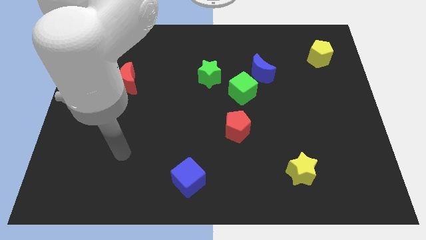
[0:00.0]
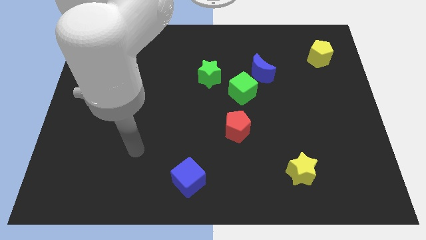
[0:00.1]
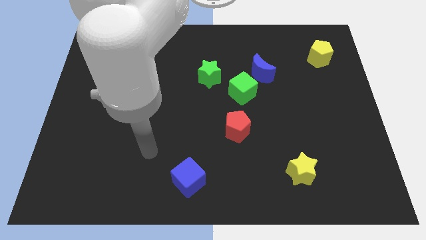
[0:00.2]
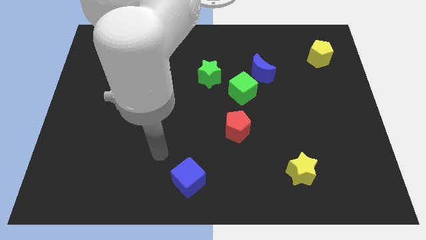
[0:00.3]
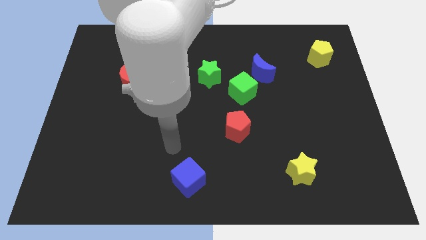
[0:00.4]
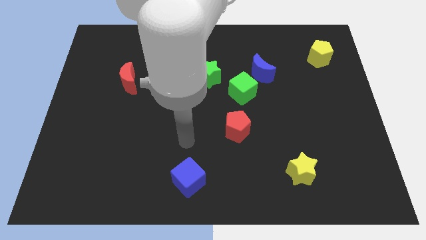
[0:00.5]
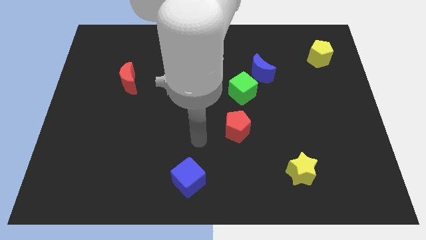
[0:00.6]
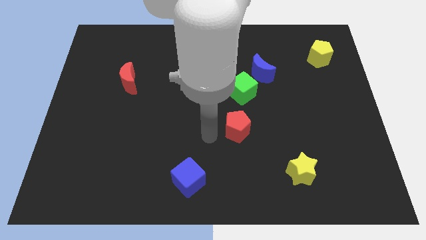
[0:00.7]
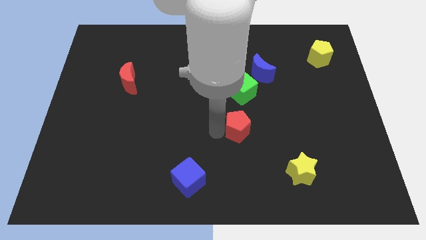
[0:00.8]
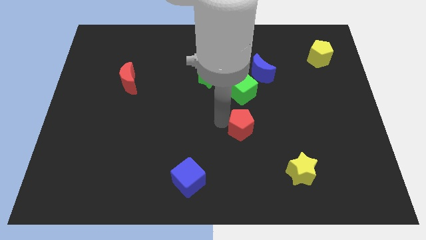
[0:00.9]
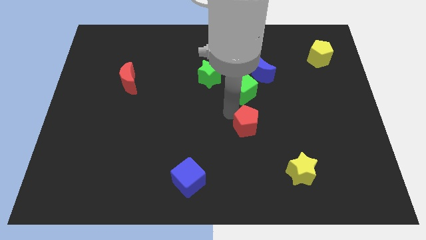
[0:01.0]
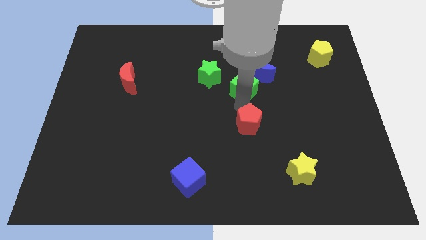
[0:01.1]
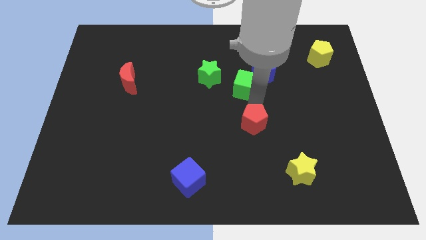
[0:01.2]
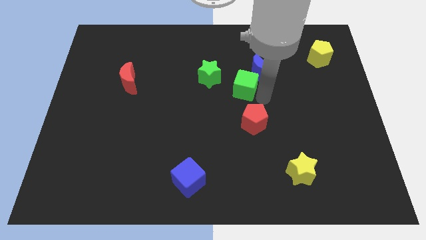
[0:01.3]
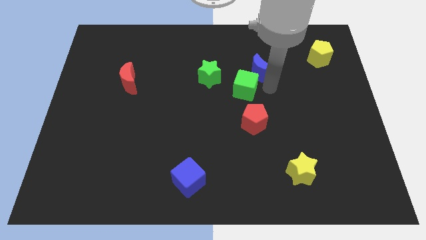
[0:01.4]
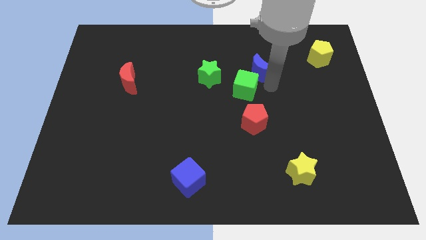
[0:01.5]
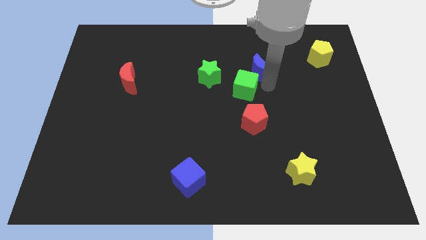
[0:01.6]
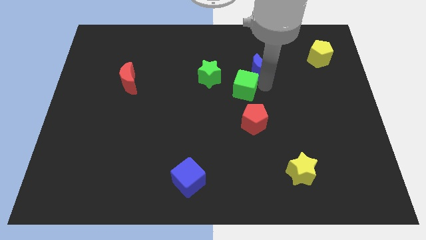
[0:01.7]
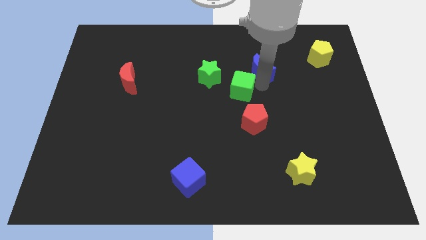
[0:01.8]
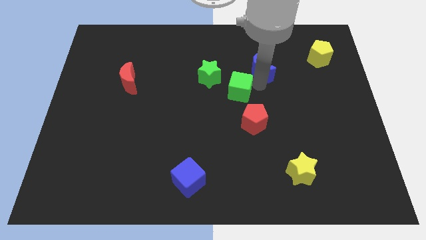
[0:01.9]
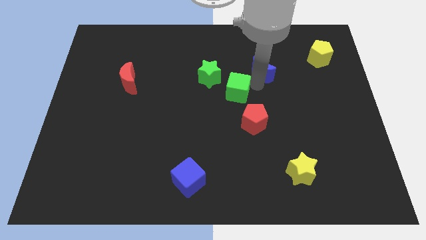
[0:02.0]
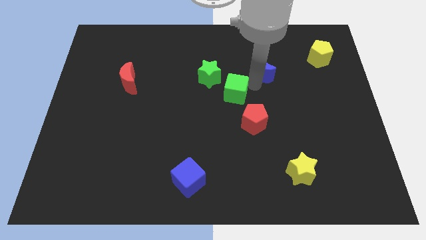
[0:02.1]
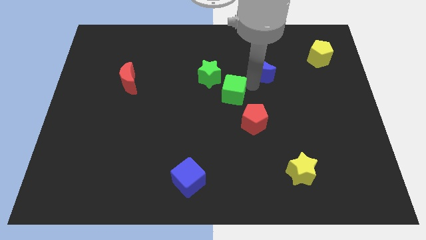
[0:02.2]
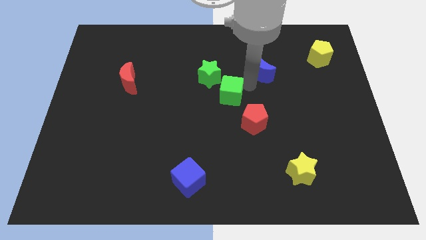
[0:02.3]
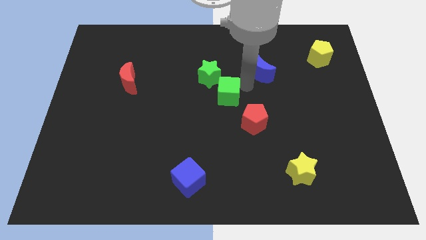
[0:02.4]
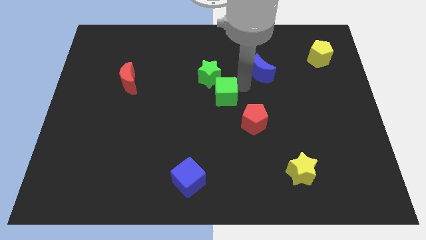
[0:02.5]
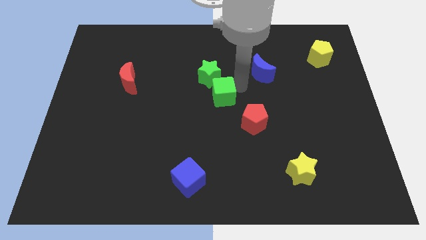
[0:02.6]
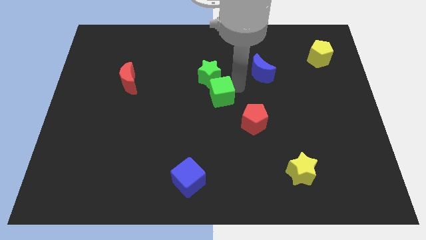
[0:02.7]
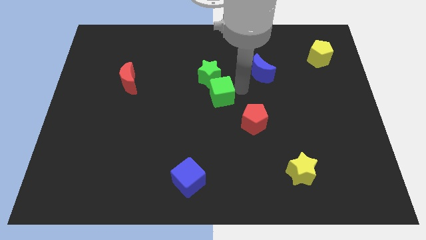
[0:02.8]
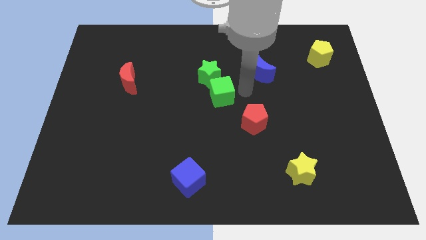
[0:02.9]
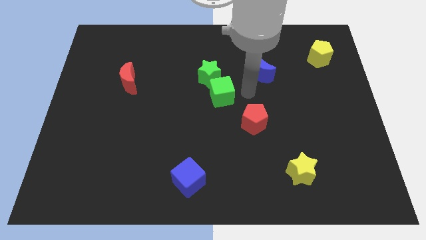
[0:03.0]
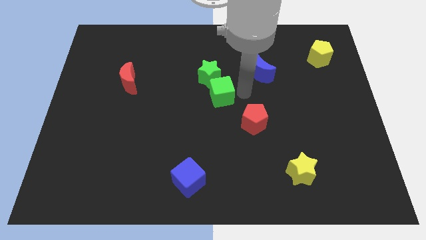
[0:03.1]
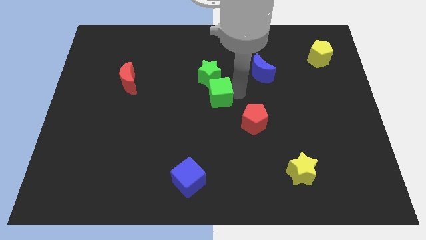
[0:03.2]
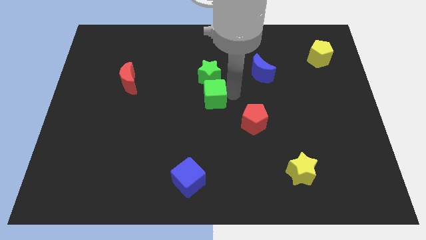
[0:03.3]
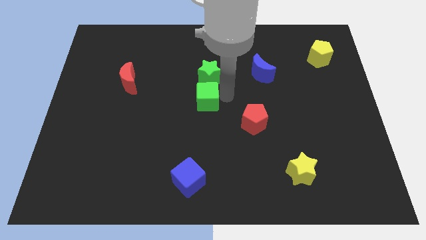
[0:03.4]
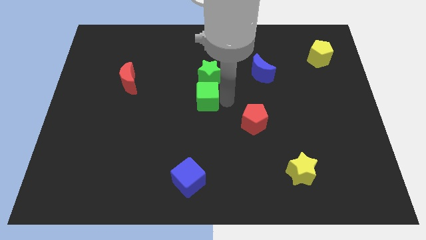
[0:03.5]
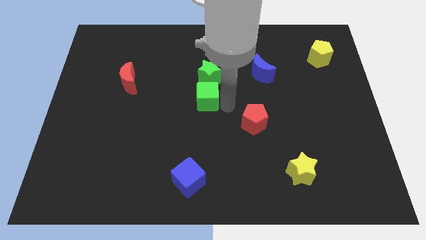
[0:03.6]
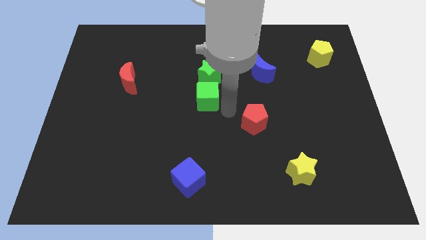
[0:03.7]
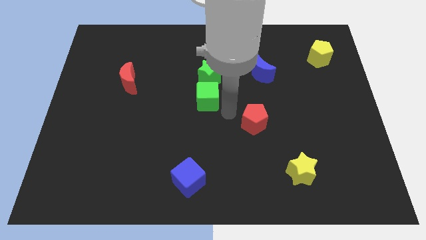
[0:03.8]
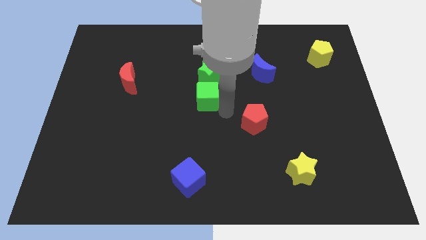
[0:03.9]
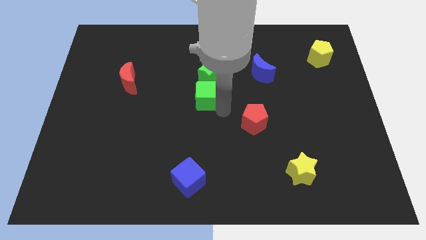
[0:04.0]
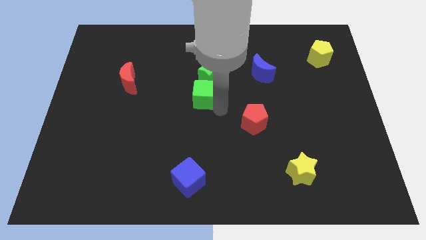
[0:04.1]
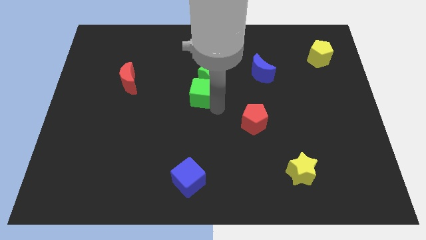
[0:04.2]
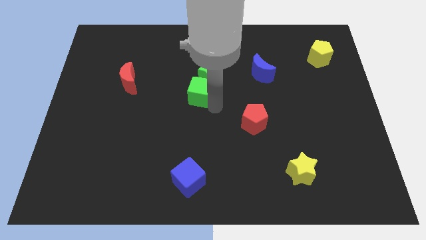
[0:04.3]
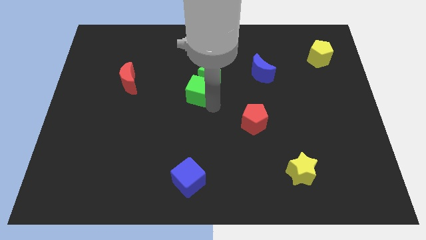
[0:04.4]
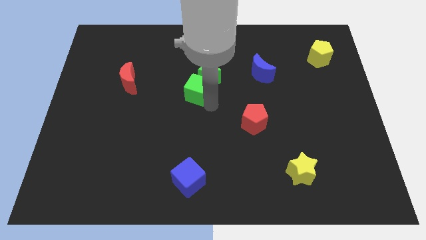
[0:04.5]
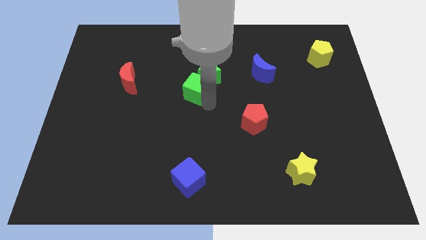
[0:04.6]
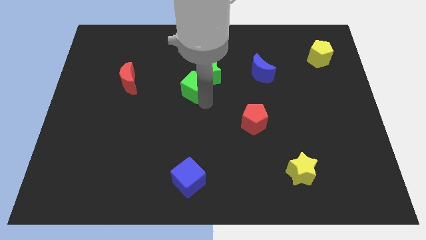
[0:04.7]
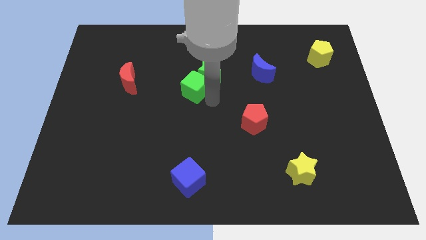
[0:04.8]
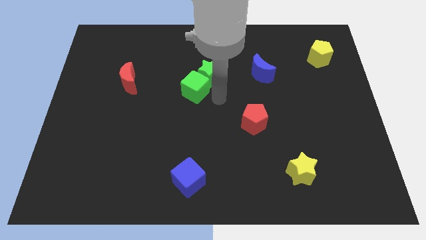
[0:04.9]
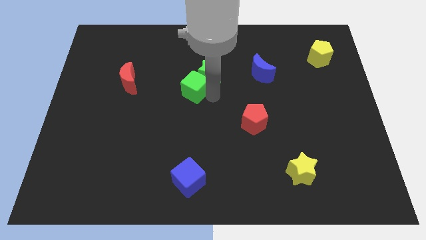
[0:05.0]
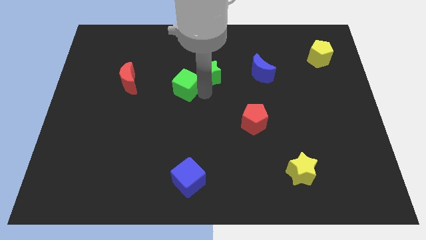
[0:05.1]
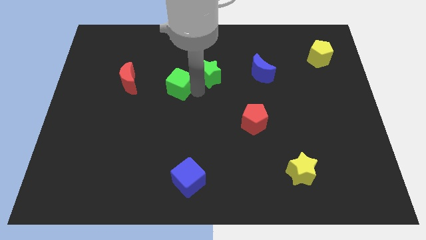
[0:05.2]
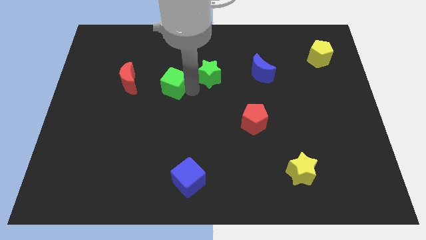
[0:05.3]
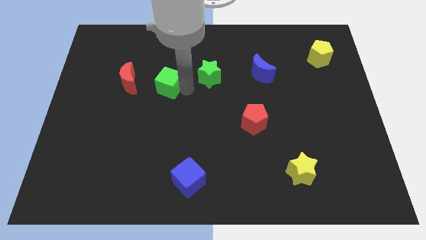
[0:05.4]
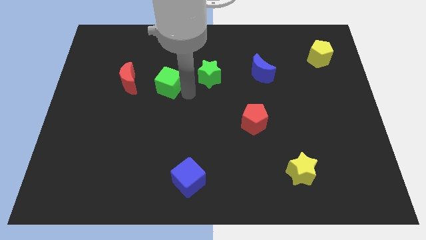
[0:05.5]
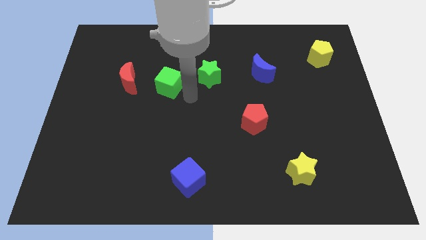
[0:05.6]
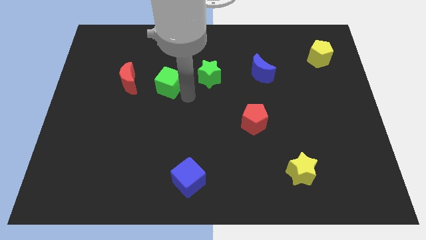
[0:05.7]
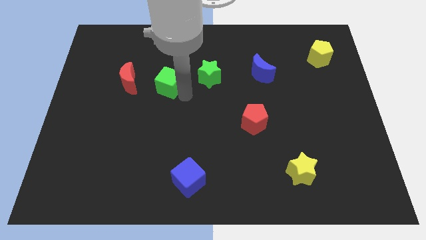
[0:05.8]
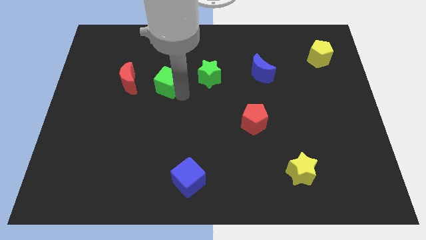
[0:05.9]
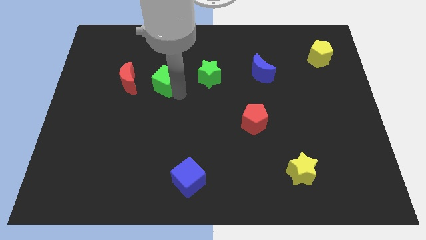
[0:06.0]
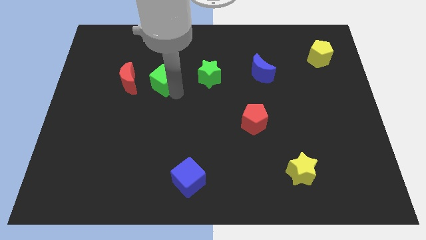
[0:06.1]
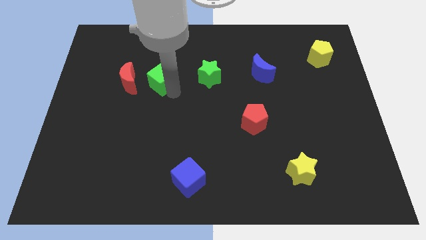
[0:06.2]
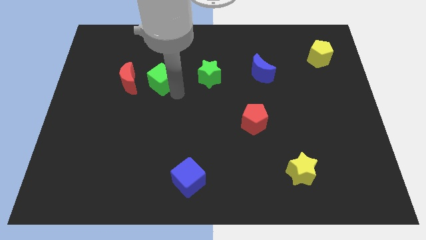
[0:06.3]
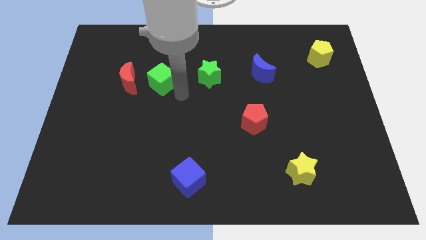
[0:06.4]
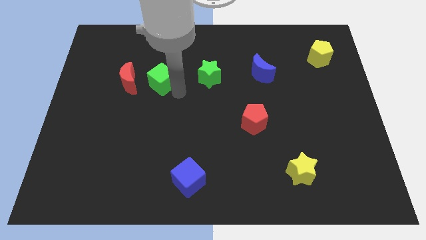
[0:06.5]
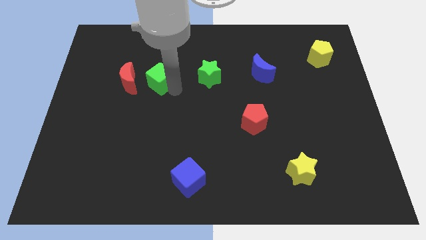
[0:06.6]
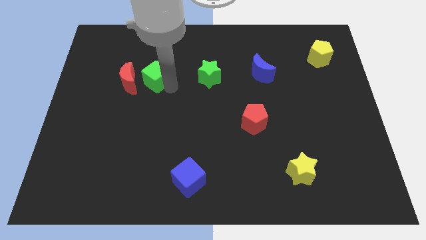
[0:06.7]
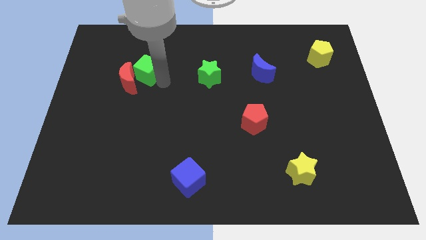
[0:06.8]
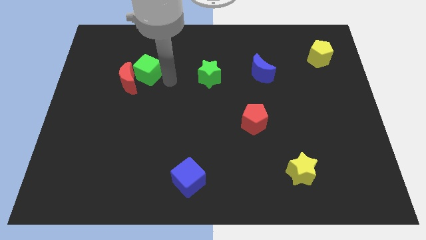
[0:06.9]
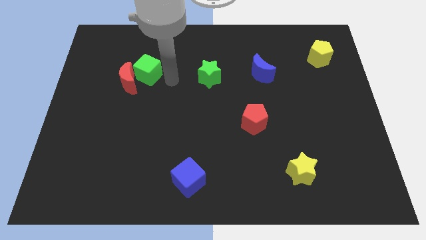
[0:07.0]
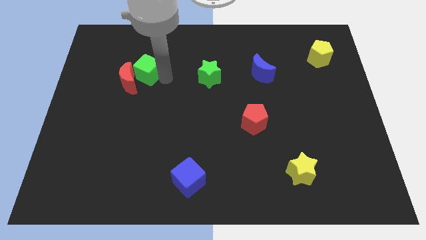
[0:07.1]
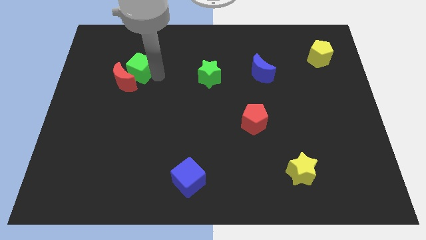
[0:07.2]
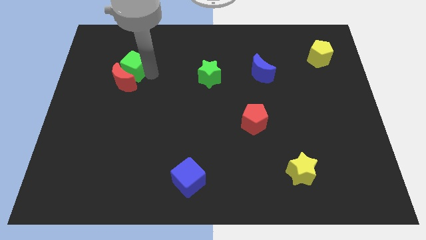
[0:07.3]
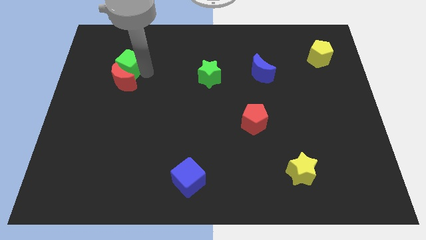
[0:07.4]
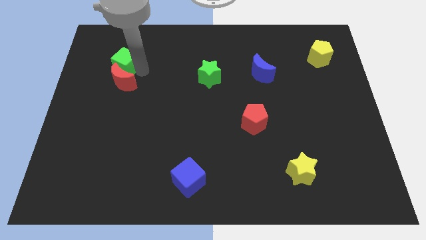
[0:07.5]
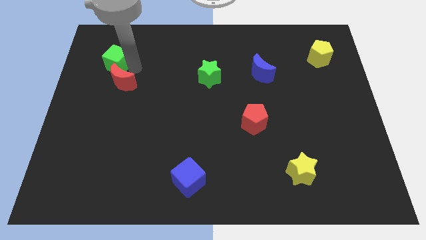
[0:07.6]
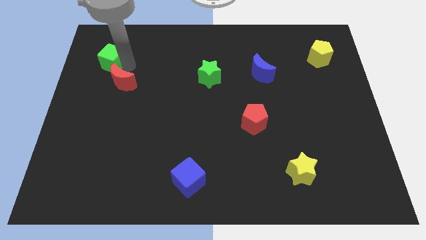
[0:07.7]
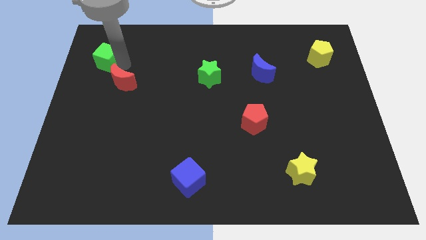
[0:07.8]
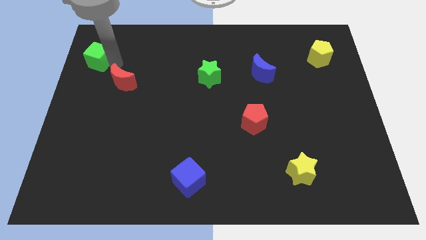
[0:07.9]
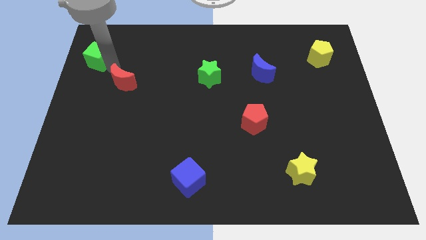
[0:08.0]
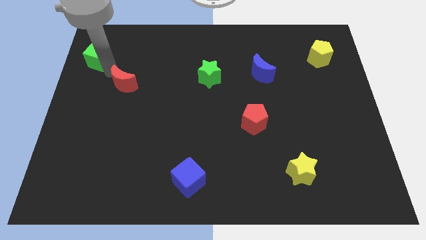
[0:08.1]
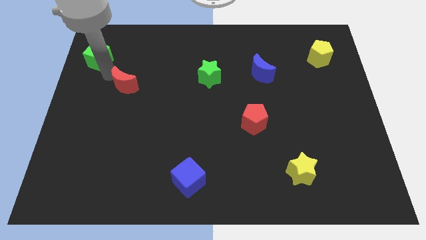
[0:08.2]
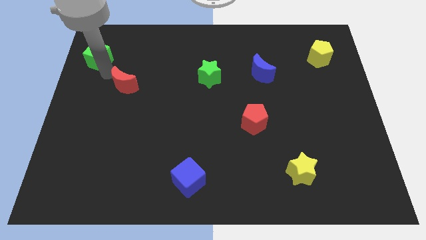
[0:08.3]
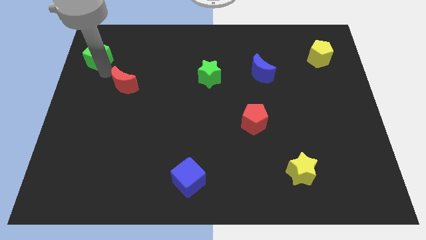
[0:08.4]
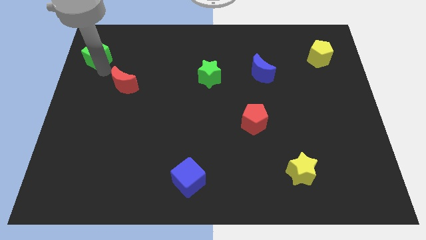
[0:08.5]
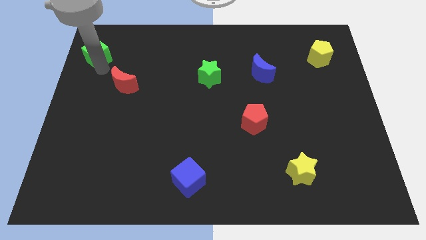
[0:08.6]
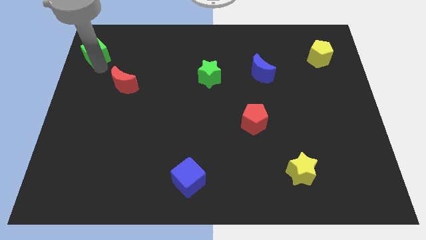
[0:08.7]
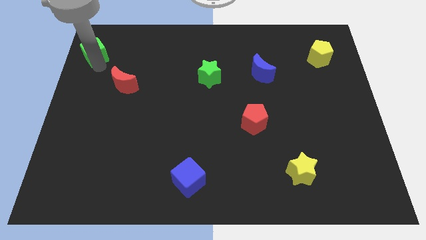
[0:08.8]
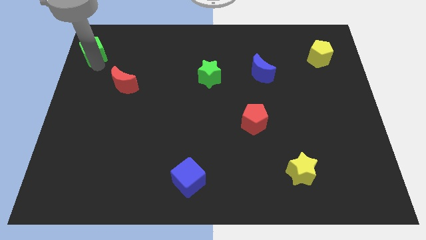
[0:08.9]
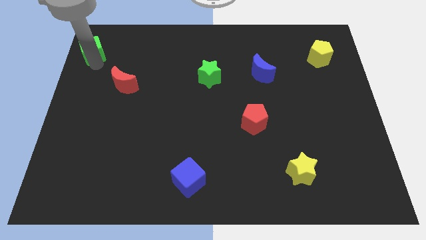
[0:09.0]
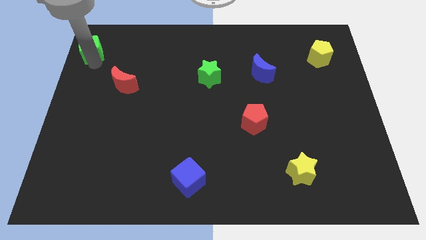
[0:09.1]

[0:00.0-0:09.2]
put the green cube to the top left of the board
